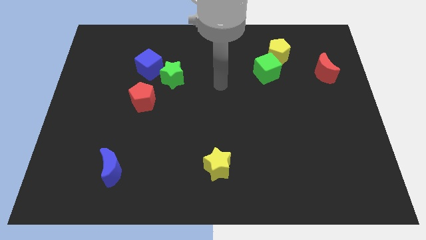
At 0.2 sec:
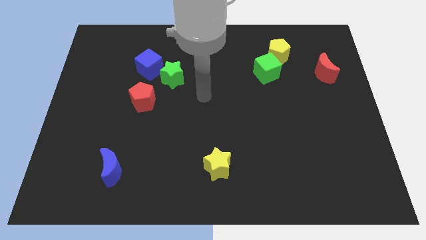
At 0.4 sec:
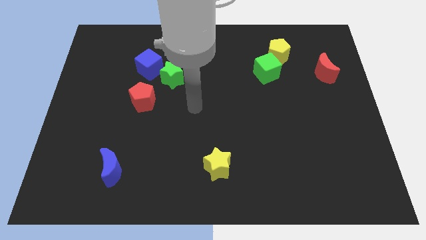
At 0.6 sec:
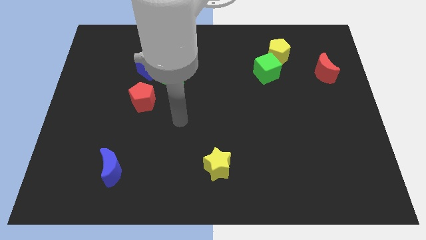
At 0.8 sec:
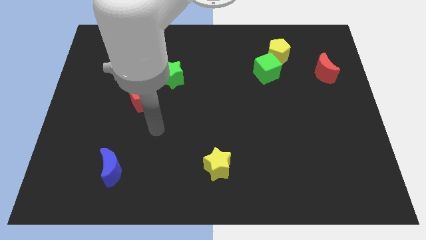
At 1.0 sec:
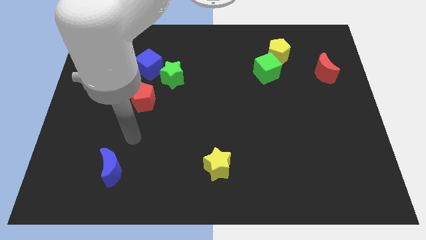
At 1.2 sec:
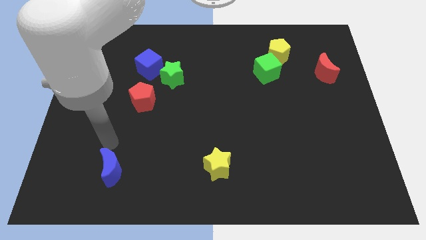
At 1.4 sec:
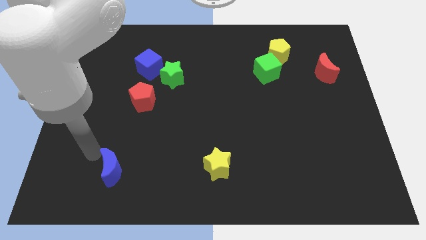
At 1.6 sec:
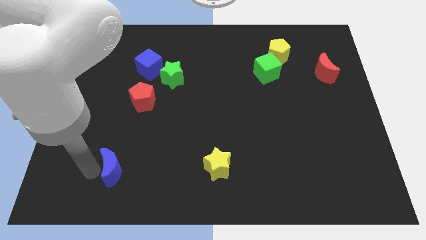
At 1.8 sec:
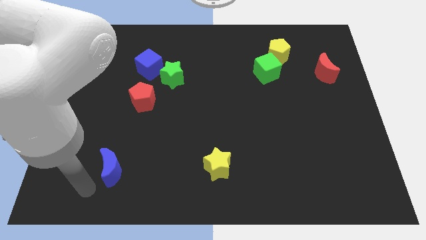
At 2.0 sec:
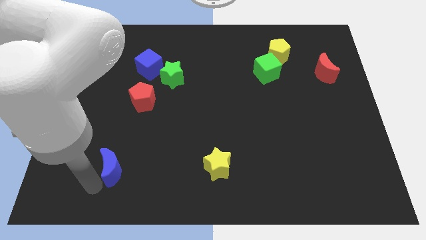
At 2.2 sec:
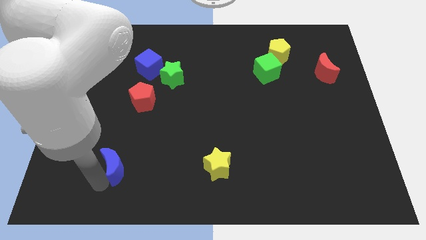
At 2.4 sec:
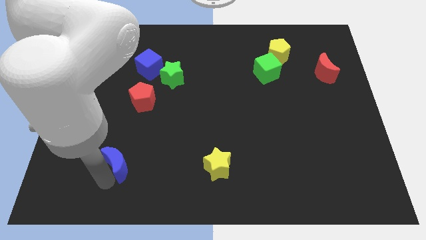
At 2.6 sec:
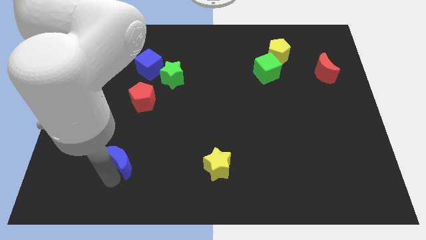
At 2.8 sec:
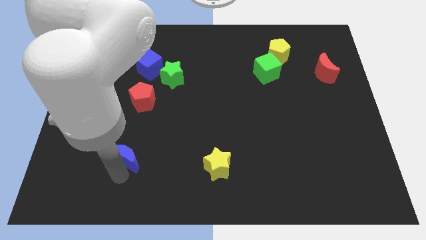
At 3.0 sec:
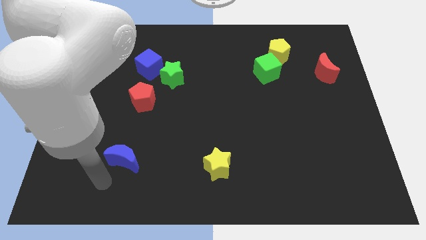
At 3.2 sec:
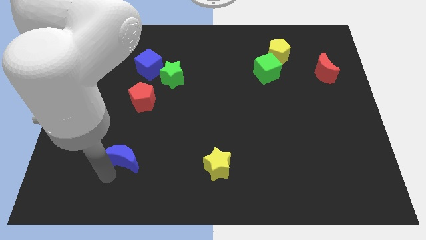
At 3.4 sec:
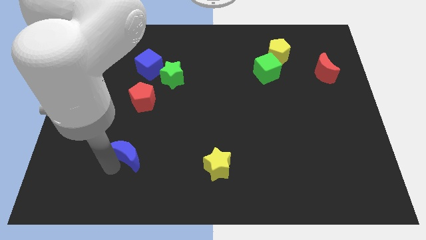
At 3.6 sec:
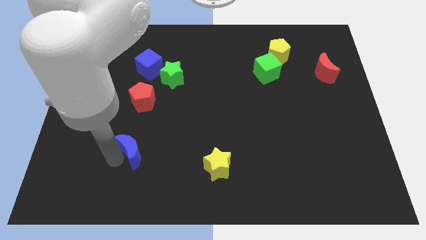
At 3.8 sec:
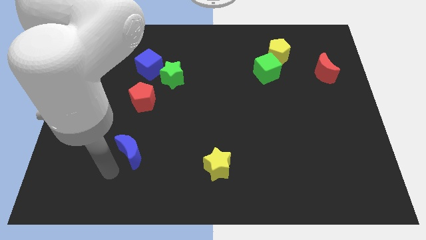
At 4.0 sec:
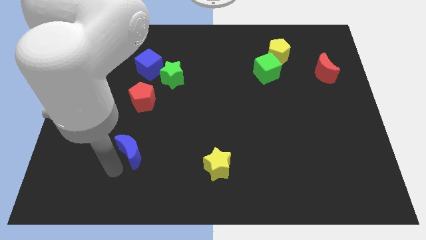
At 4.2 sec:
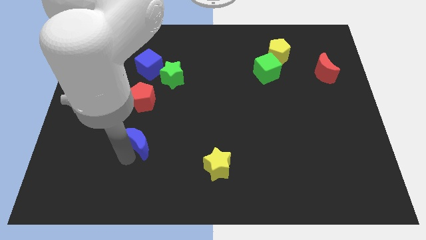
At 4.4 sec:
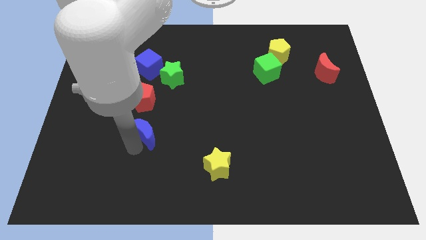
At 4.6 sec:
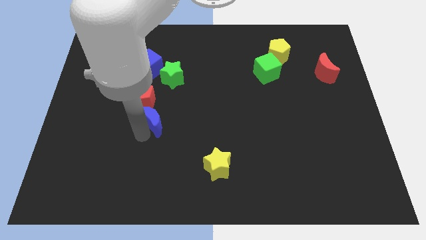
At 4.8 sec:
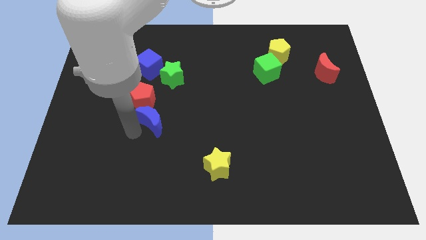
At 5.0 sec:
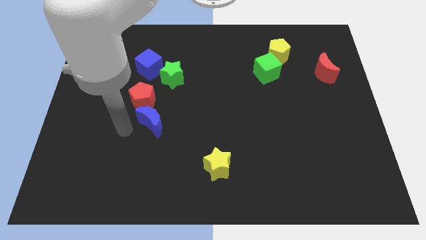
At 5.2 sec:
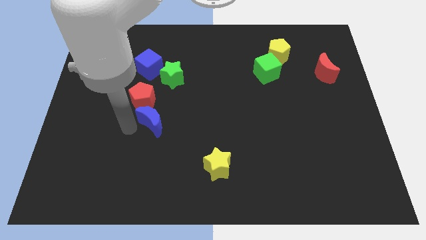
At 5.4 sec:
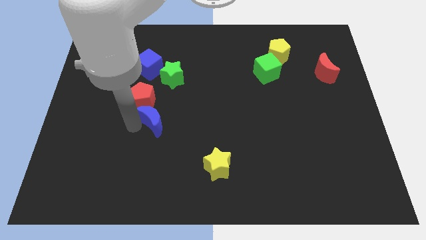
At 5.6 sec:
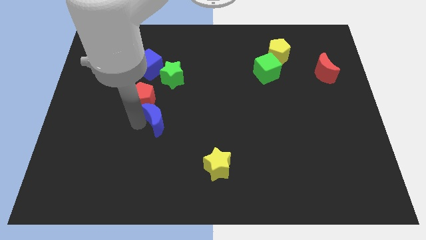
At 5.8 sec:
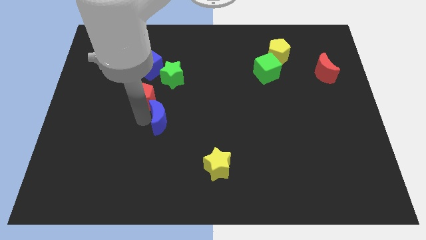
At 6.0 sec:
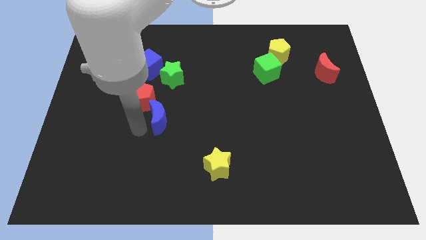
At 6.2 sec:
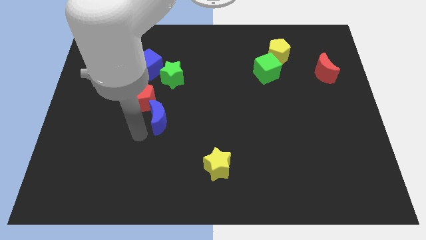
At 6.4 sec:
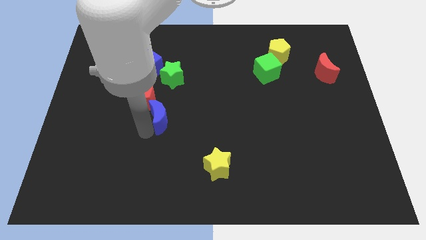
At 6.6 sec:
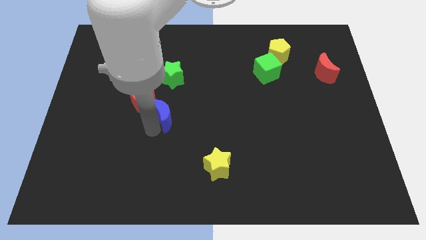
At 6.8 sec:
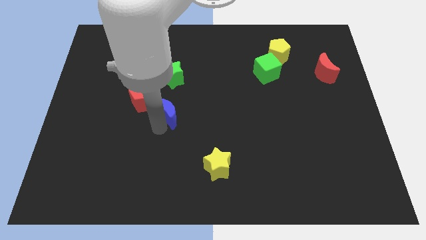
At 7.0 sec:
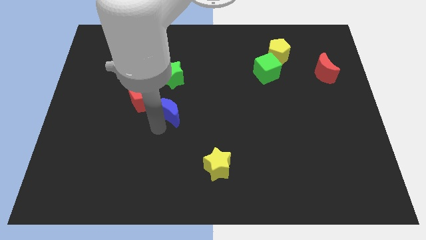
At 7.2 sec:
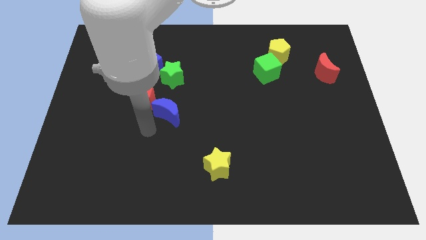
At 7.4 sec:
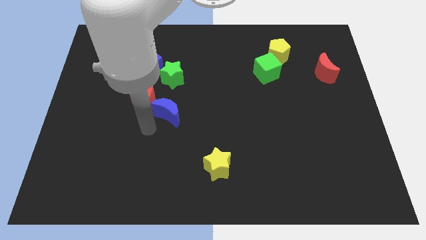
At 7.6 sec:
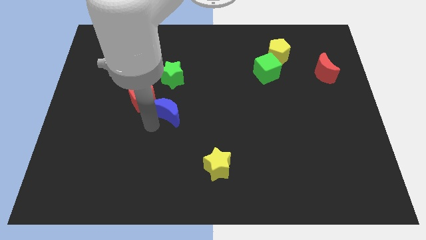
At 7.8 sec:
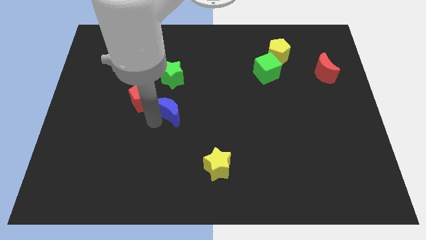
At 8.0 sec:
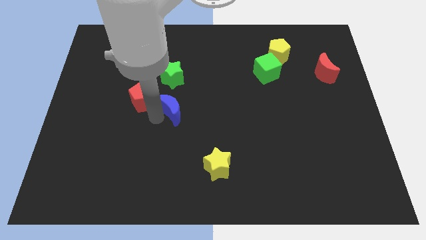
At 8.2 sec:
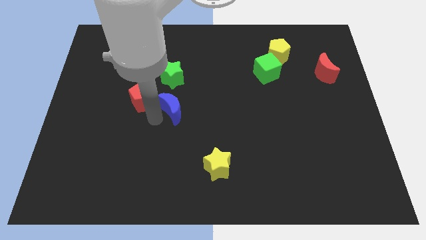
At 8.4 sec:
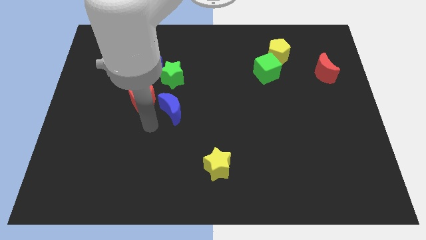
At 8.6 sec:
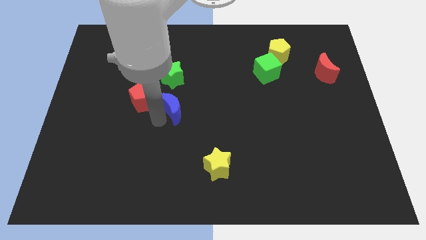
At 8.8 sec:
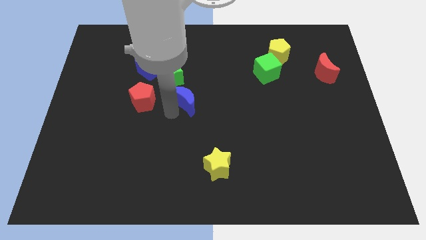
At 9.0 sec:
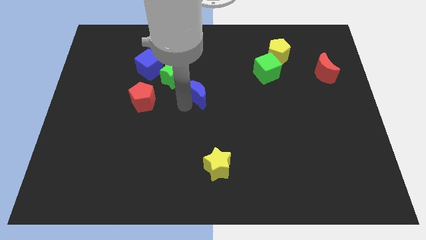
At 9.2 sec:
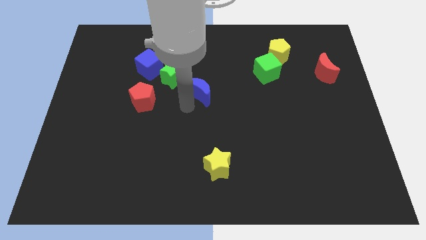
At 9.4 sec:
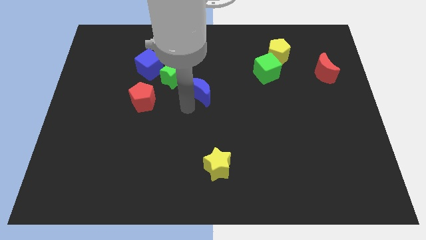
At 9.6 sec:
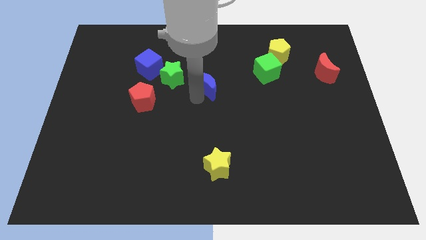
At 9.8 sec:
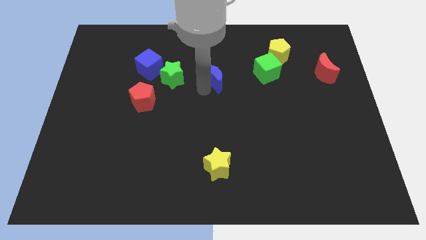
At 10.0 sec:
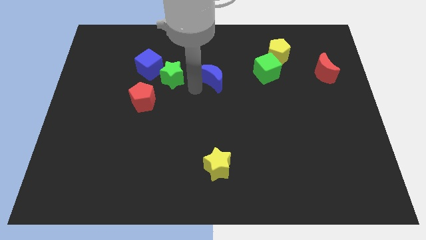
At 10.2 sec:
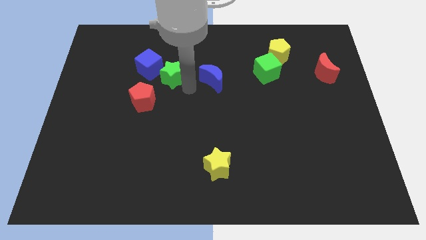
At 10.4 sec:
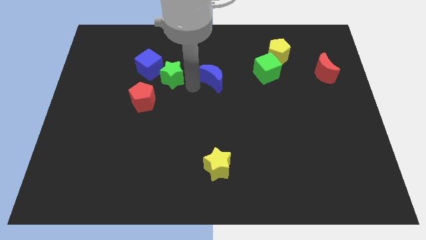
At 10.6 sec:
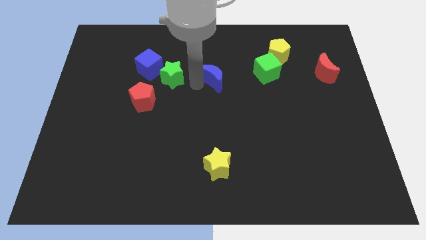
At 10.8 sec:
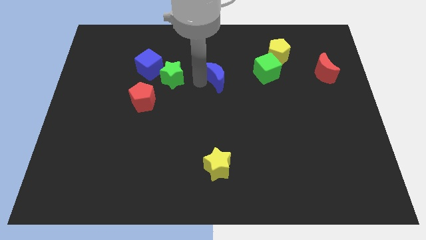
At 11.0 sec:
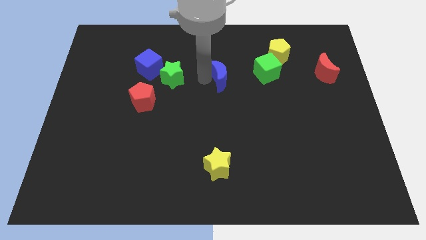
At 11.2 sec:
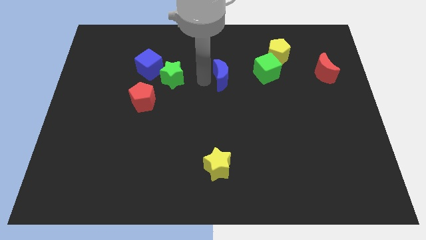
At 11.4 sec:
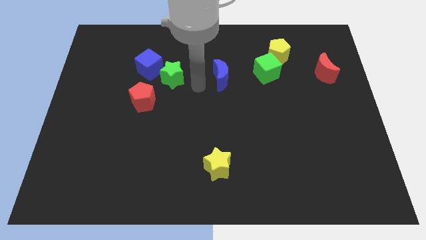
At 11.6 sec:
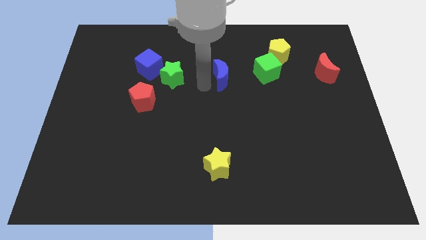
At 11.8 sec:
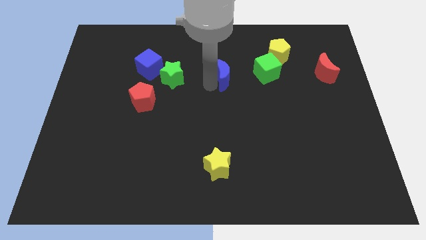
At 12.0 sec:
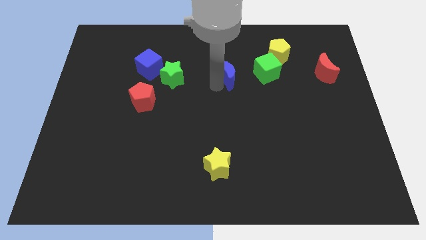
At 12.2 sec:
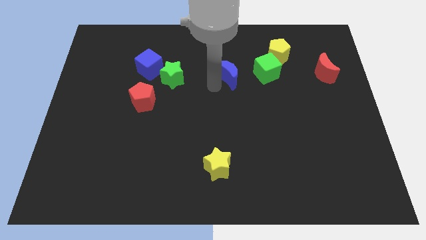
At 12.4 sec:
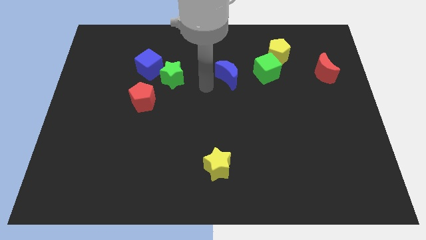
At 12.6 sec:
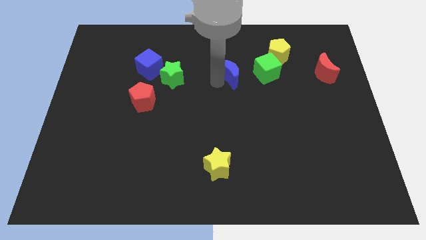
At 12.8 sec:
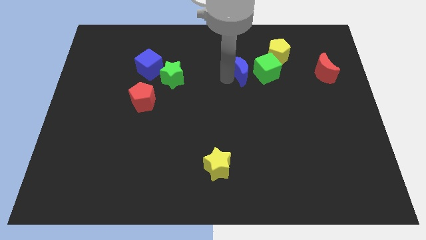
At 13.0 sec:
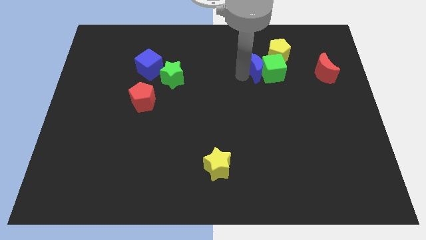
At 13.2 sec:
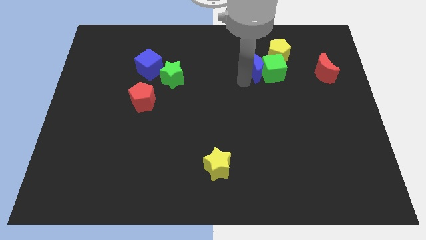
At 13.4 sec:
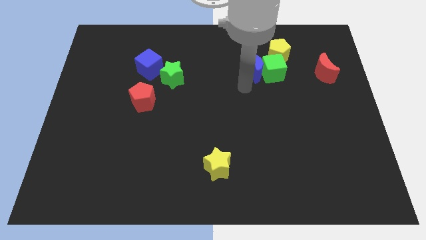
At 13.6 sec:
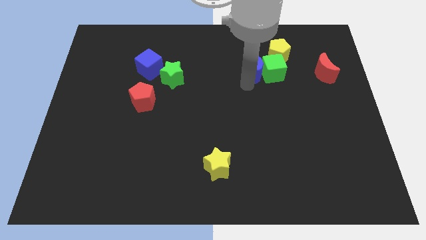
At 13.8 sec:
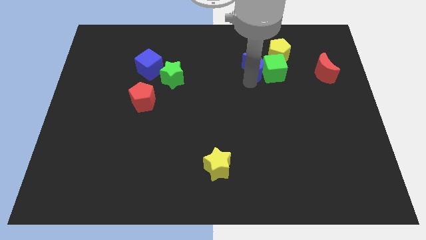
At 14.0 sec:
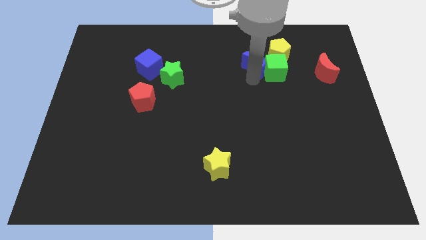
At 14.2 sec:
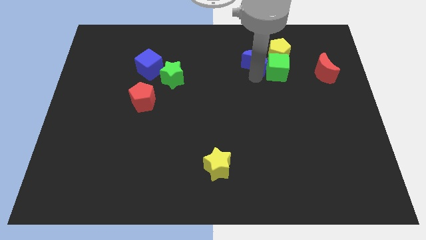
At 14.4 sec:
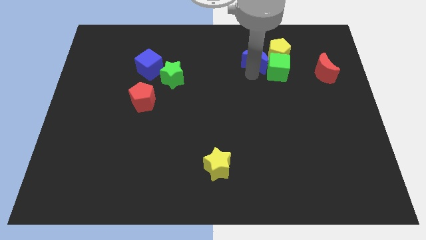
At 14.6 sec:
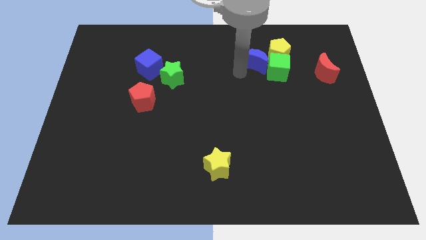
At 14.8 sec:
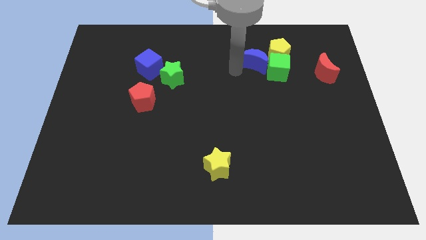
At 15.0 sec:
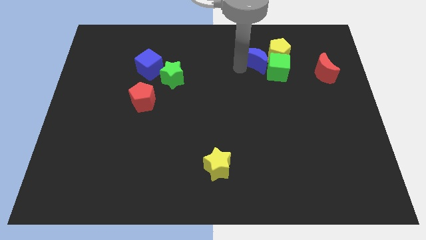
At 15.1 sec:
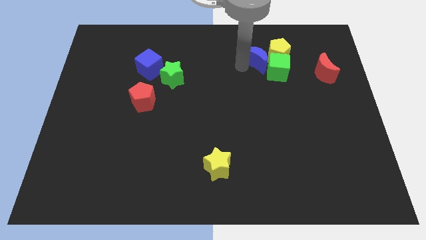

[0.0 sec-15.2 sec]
slide the blue moon towards the yellow pentagon
